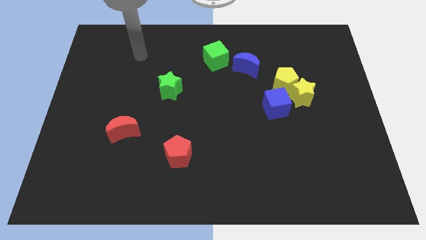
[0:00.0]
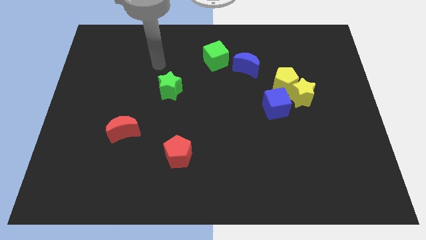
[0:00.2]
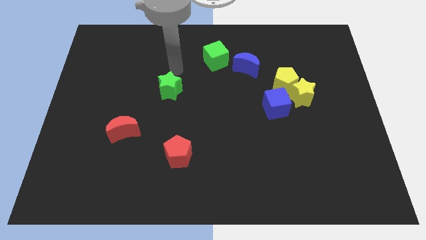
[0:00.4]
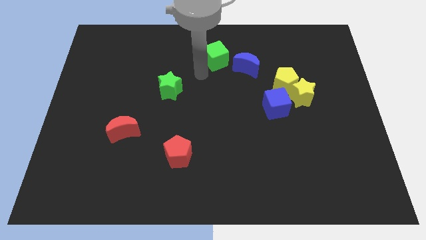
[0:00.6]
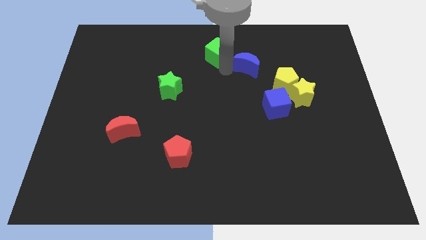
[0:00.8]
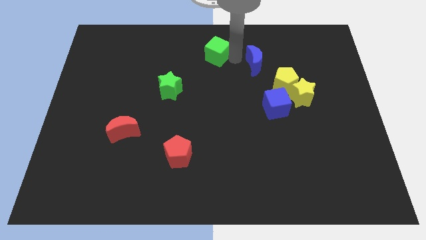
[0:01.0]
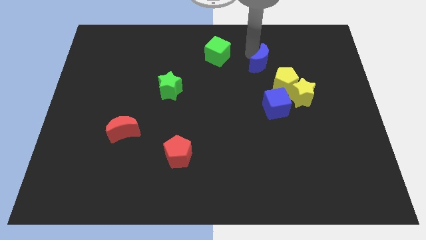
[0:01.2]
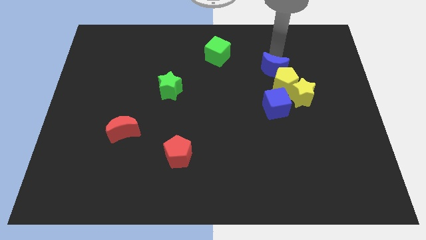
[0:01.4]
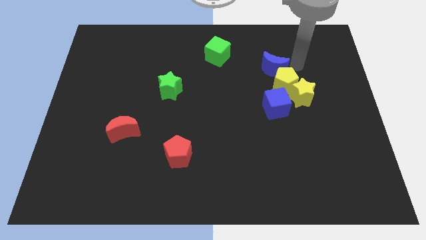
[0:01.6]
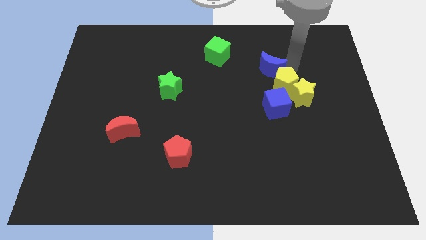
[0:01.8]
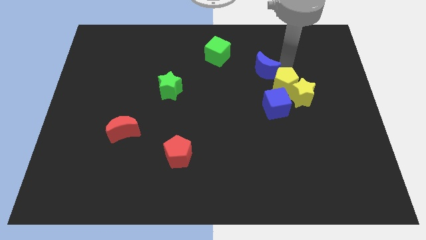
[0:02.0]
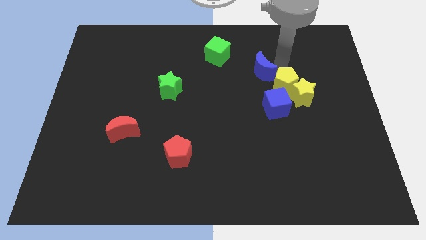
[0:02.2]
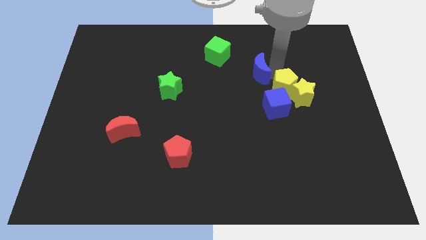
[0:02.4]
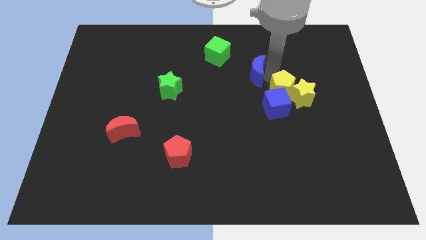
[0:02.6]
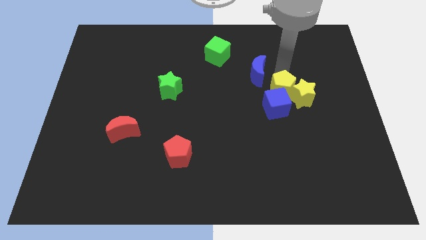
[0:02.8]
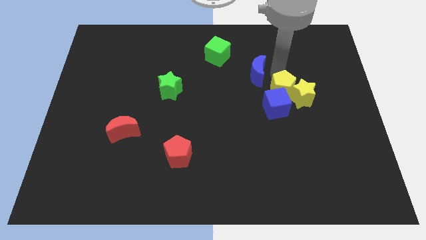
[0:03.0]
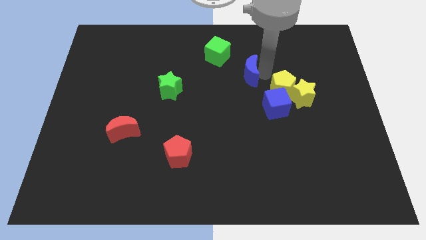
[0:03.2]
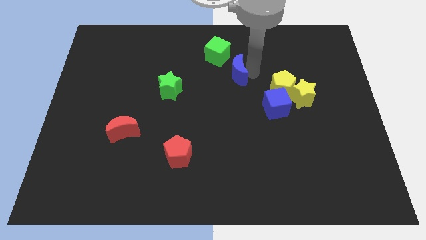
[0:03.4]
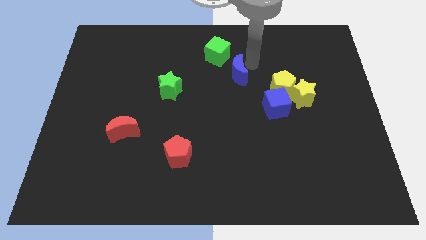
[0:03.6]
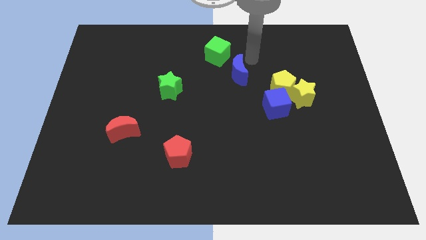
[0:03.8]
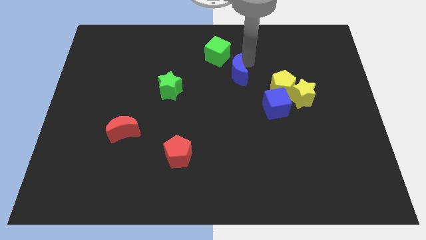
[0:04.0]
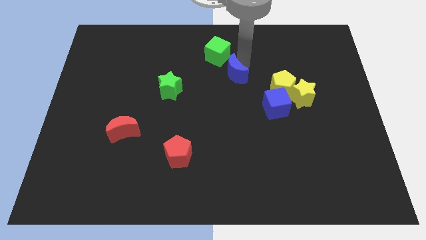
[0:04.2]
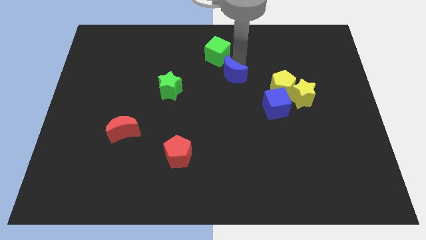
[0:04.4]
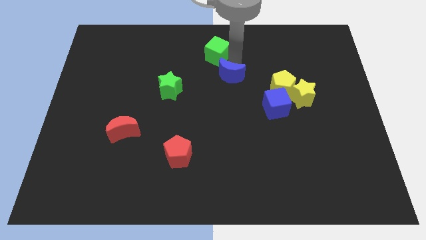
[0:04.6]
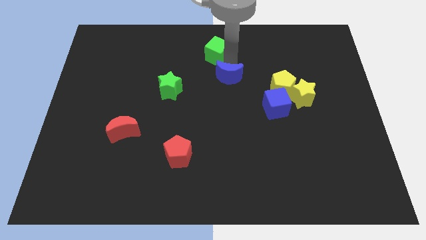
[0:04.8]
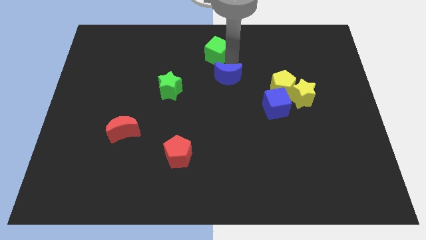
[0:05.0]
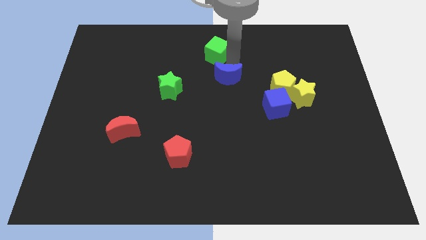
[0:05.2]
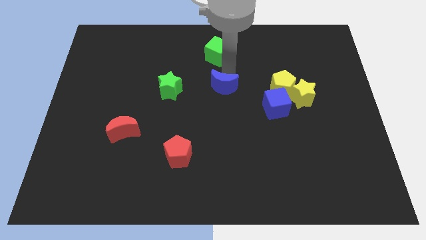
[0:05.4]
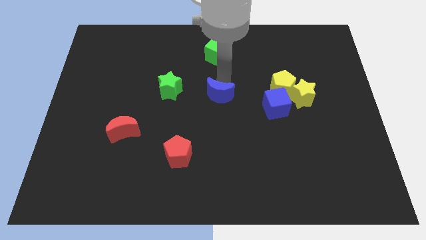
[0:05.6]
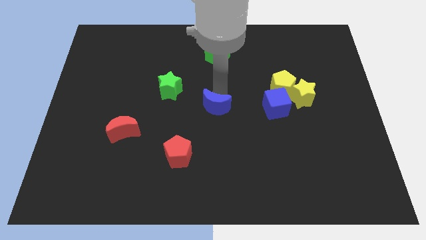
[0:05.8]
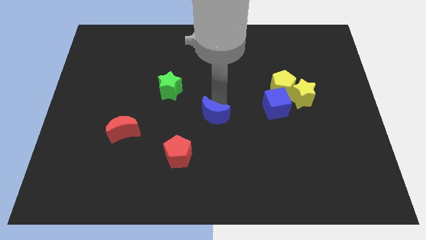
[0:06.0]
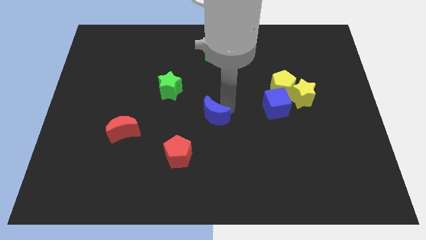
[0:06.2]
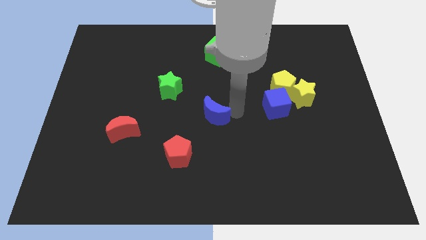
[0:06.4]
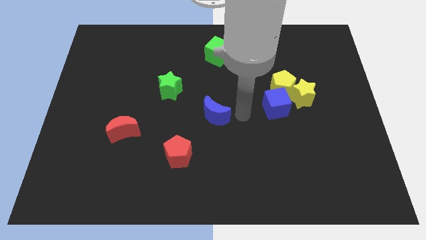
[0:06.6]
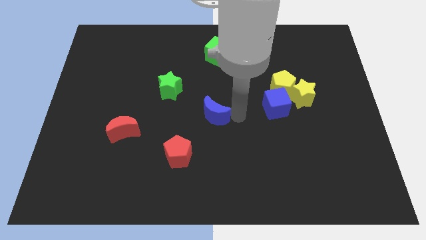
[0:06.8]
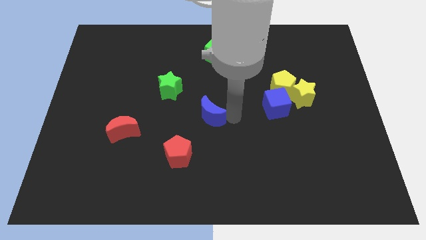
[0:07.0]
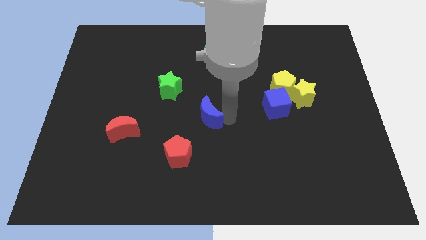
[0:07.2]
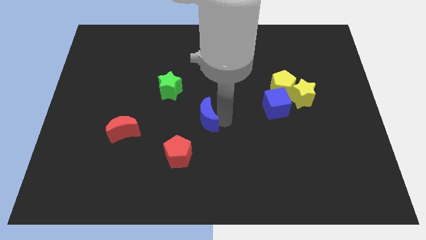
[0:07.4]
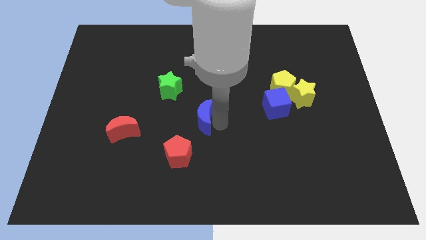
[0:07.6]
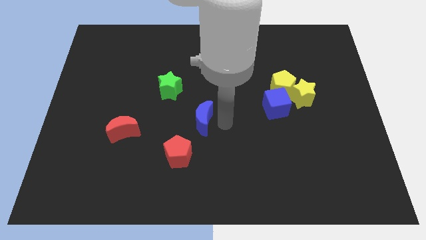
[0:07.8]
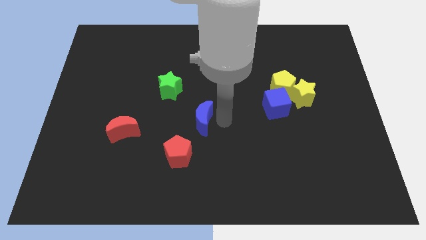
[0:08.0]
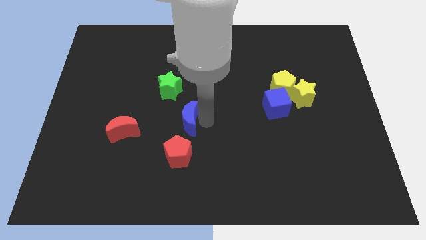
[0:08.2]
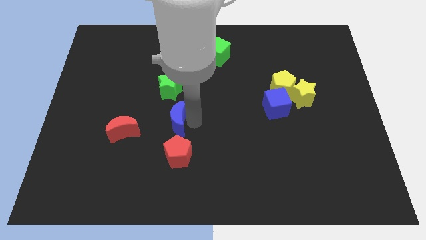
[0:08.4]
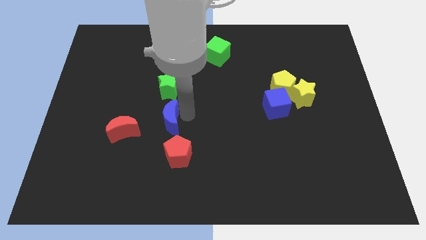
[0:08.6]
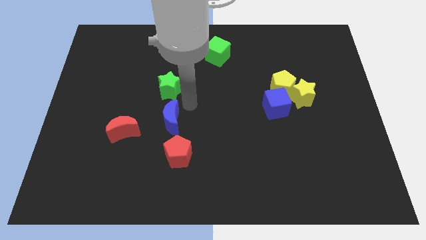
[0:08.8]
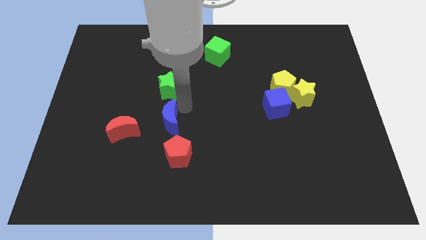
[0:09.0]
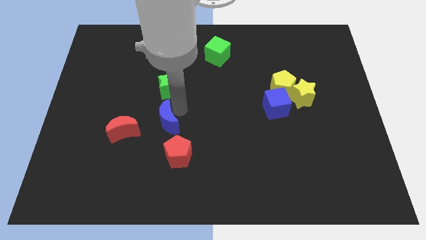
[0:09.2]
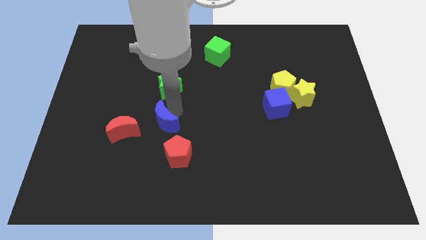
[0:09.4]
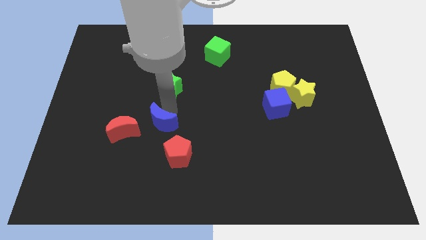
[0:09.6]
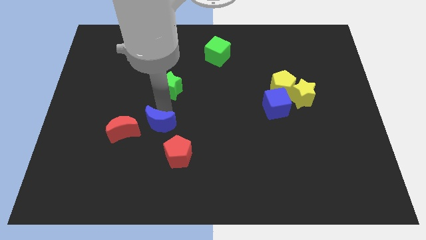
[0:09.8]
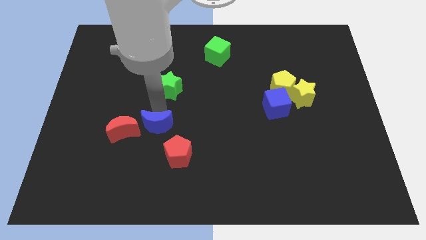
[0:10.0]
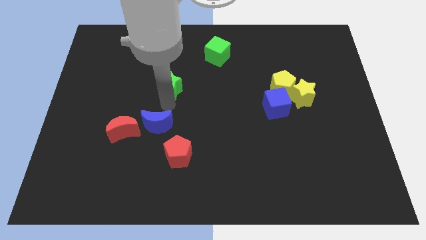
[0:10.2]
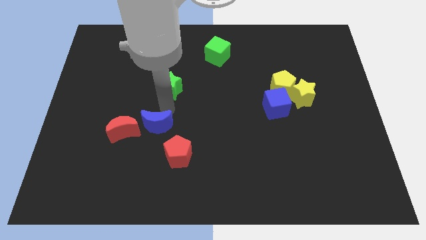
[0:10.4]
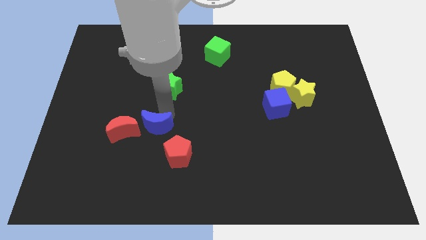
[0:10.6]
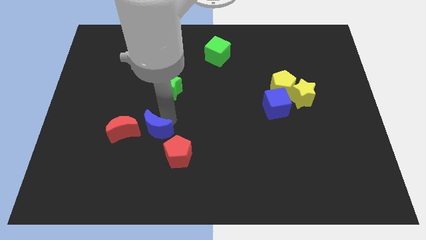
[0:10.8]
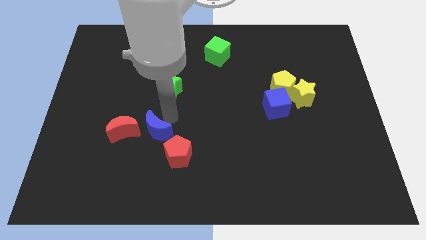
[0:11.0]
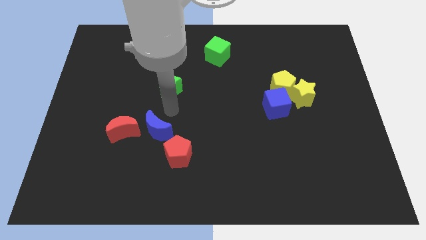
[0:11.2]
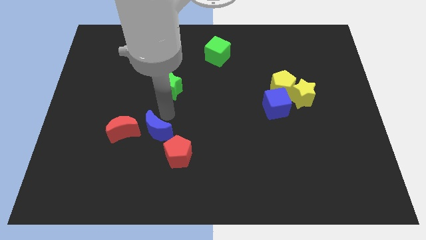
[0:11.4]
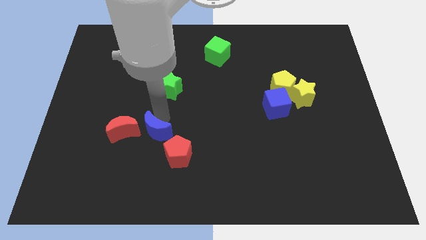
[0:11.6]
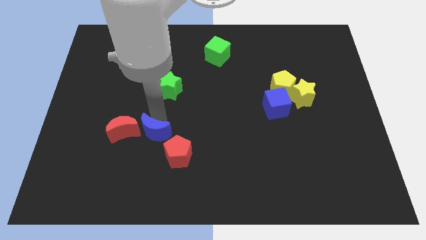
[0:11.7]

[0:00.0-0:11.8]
put the blue moon to the bottom right side of the red moon

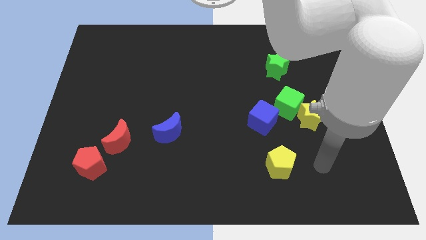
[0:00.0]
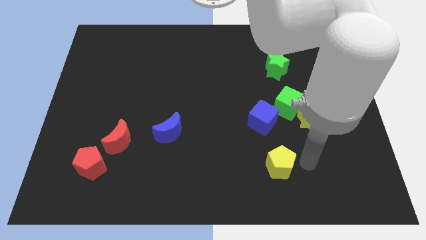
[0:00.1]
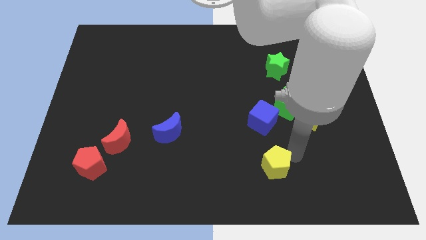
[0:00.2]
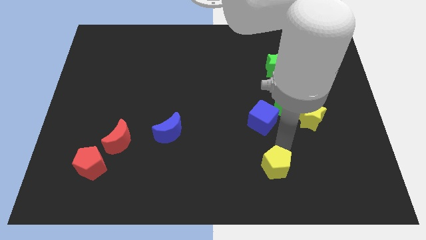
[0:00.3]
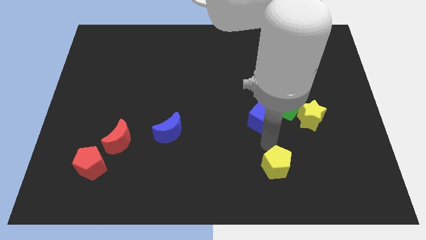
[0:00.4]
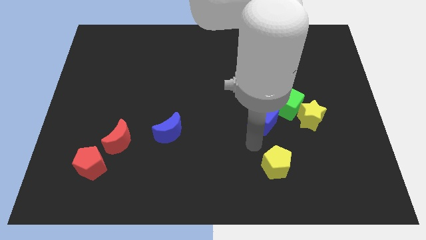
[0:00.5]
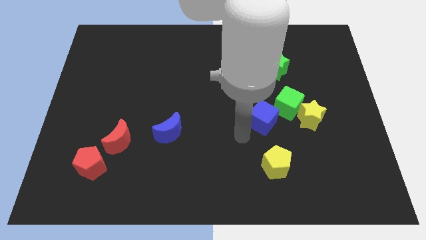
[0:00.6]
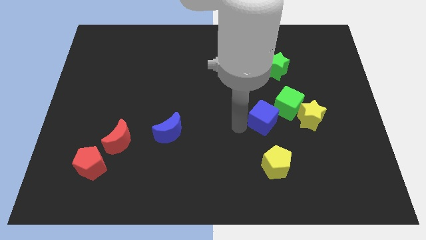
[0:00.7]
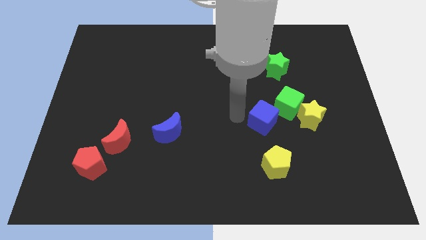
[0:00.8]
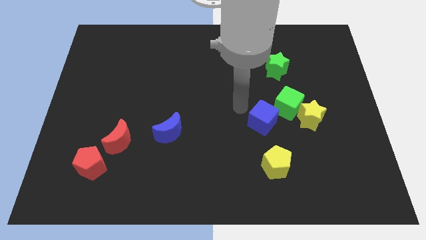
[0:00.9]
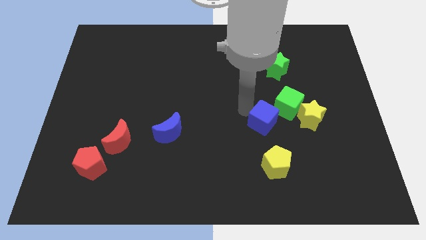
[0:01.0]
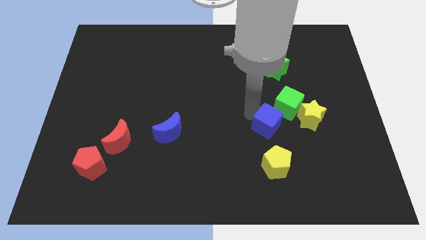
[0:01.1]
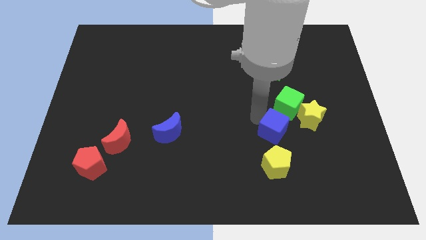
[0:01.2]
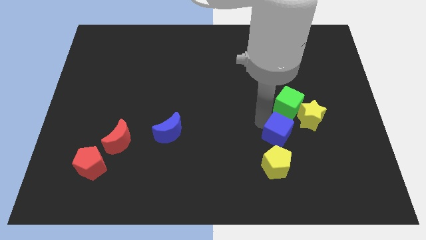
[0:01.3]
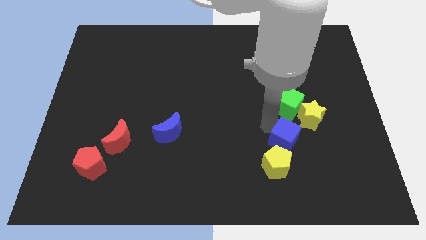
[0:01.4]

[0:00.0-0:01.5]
put the blue cube to the top right of the yellow pentagon
